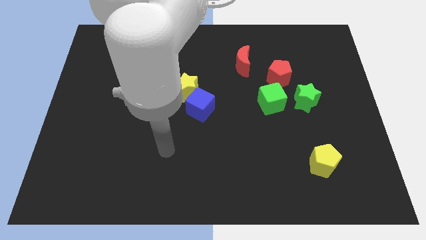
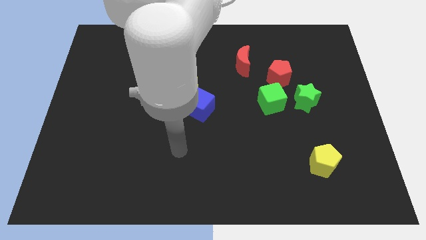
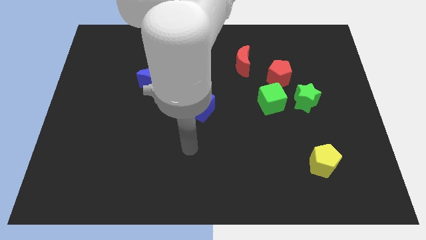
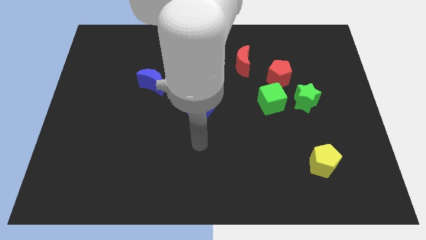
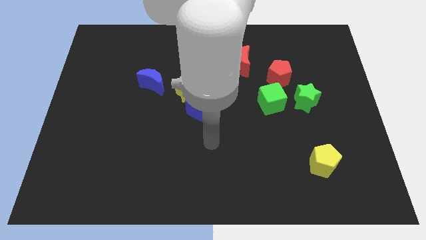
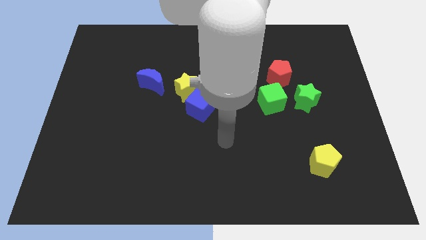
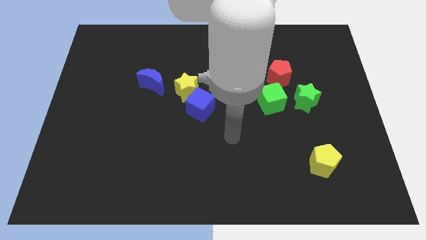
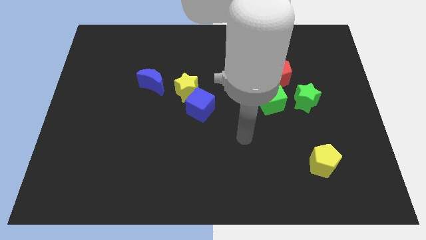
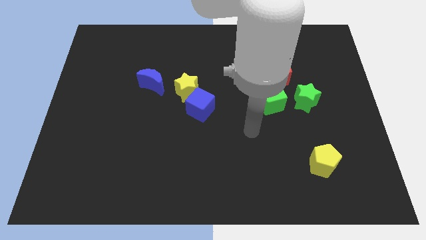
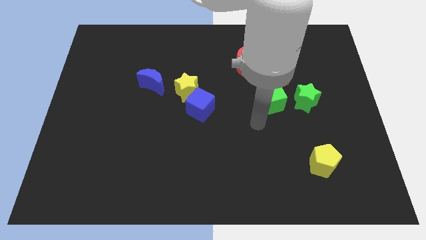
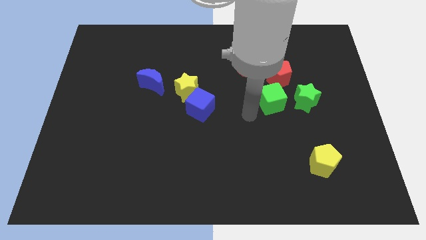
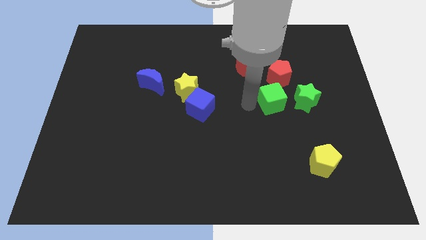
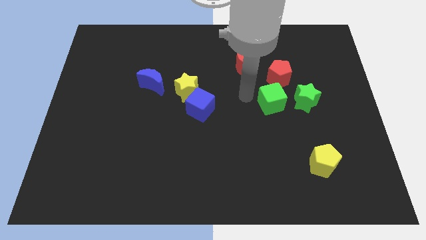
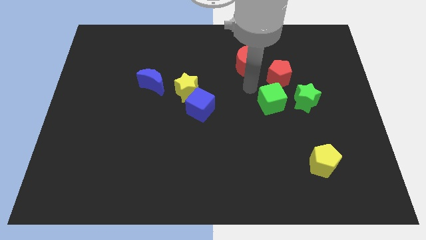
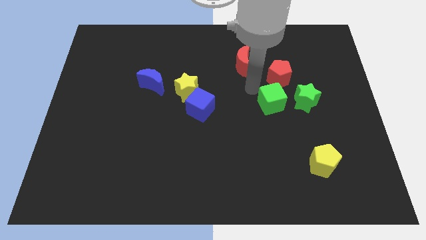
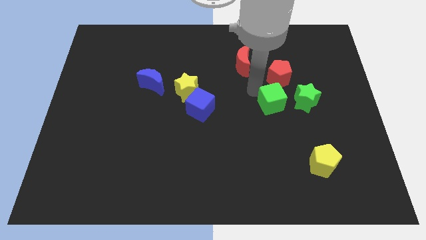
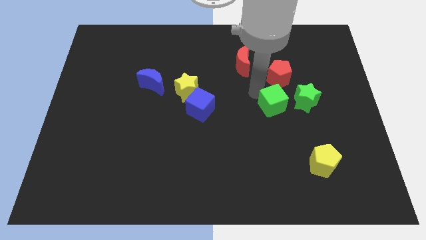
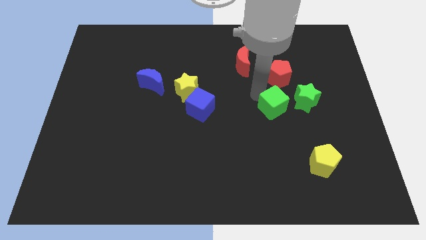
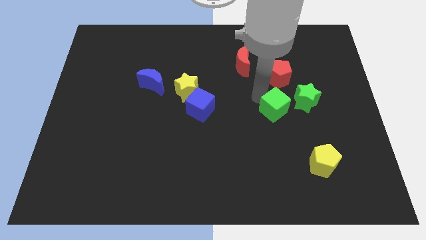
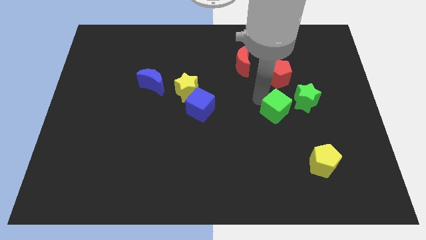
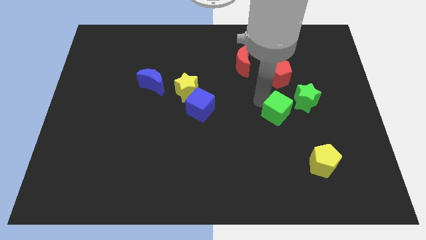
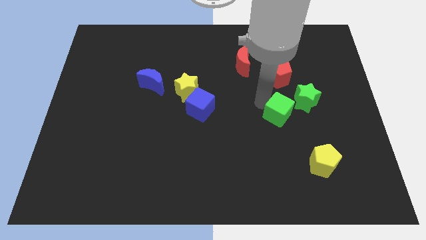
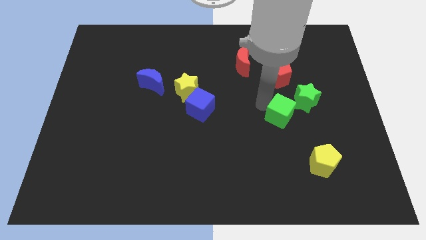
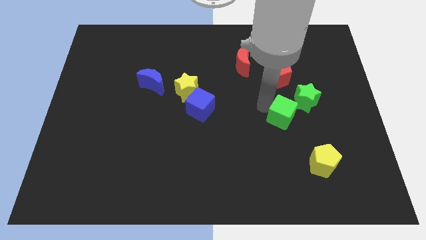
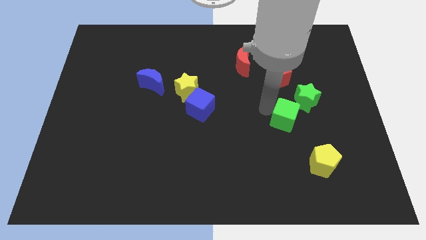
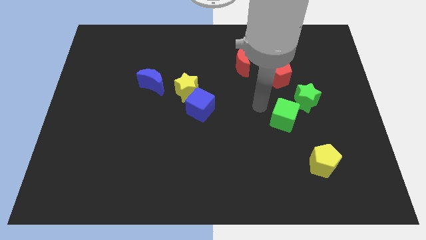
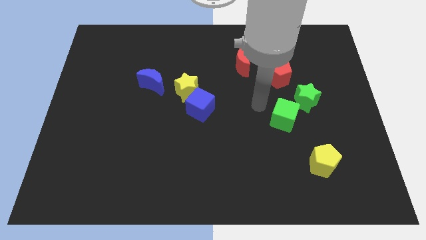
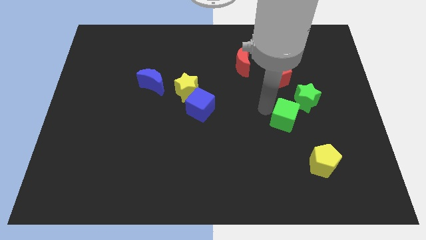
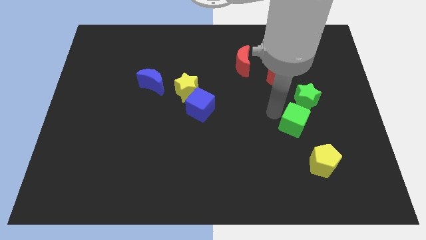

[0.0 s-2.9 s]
move the green cube downwards and then to the right somewhat

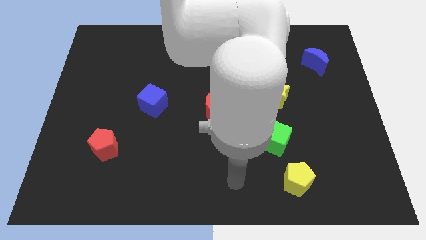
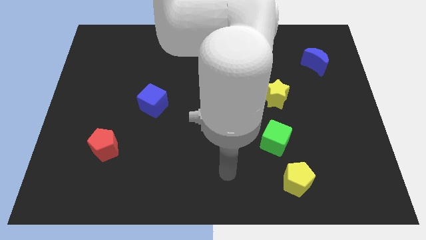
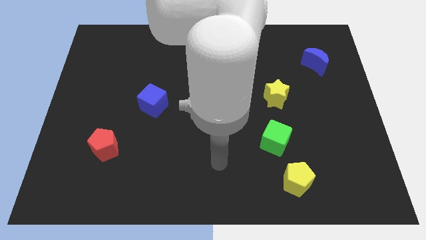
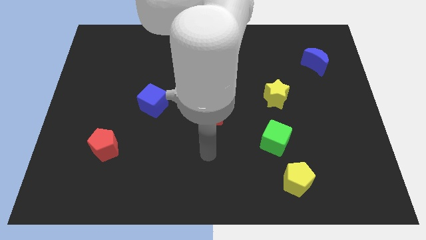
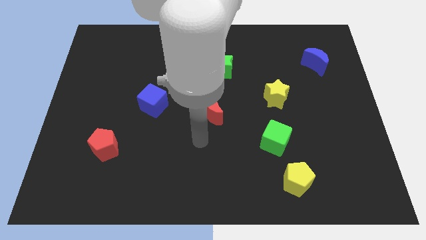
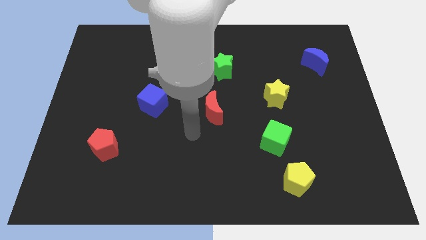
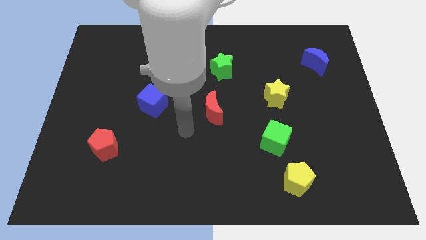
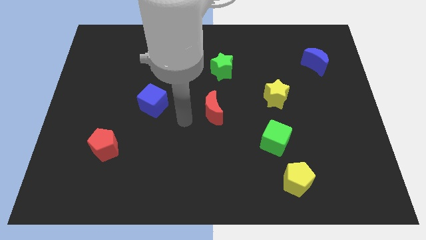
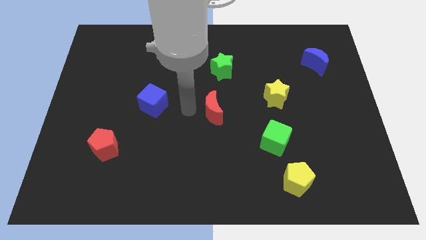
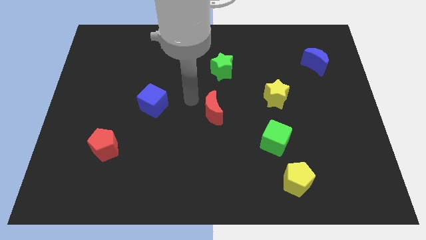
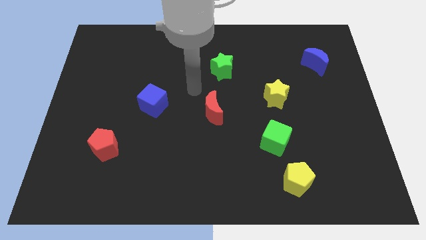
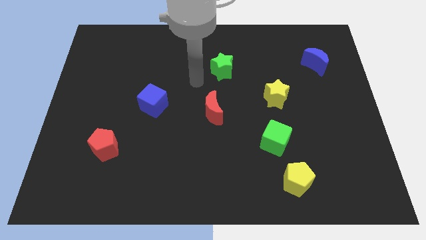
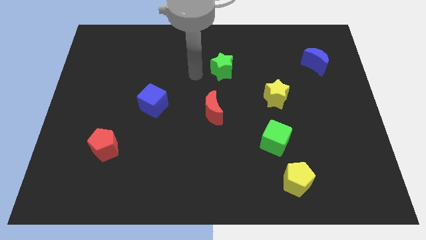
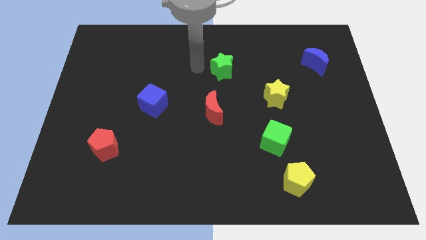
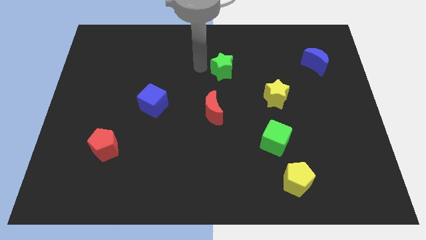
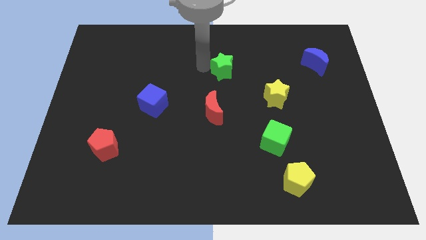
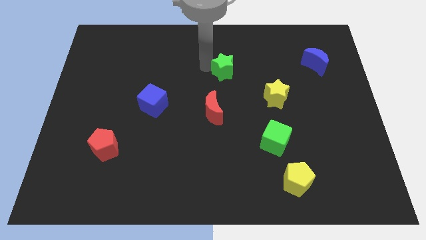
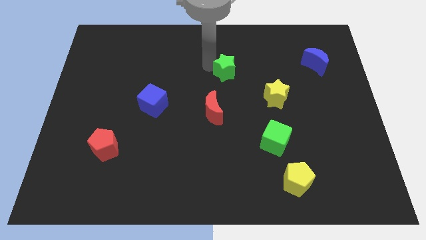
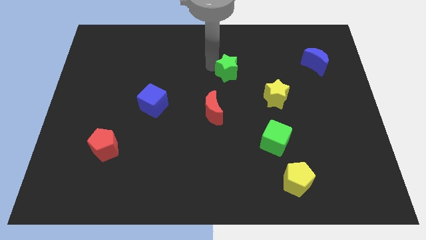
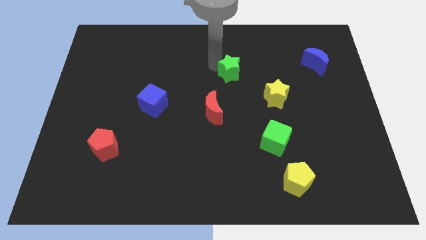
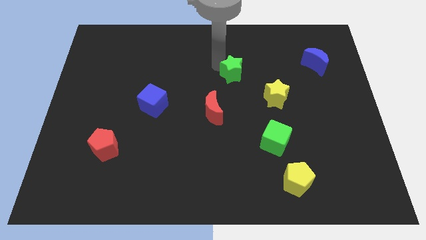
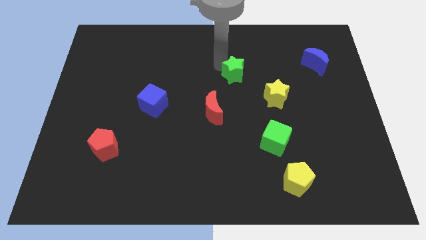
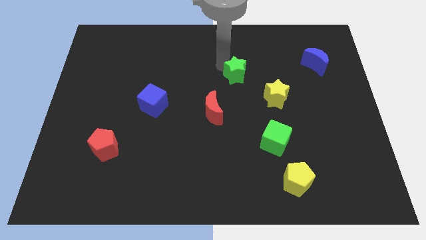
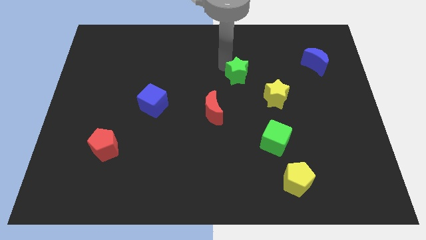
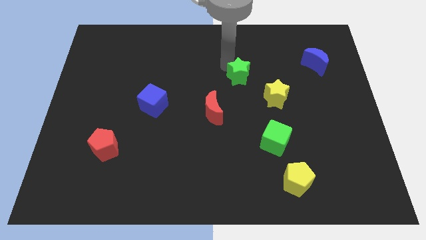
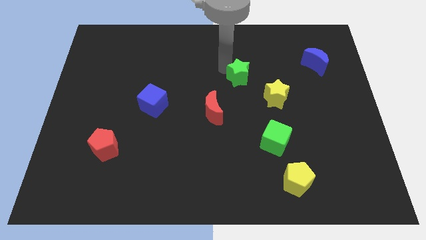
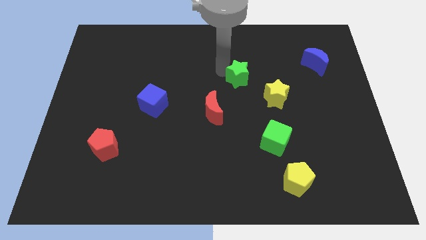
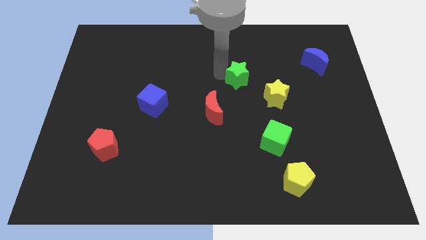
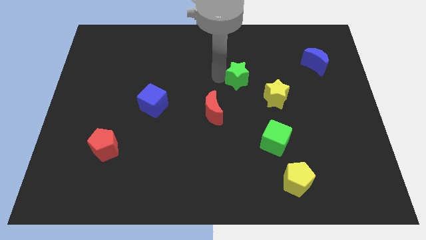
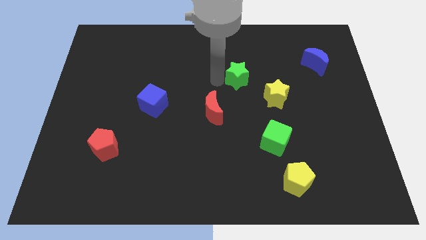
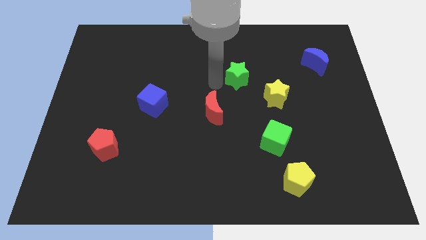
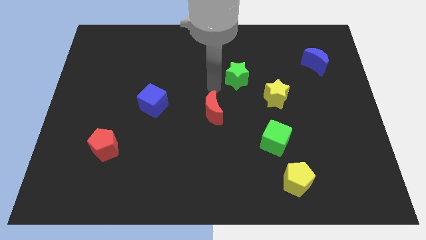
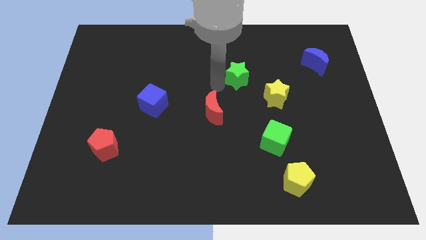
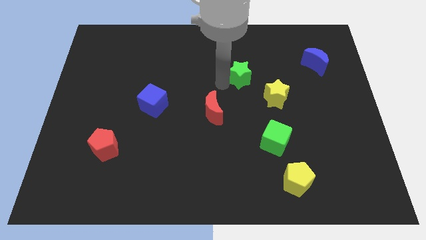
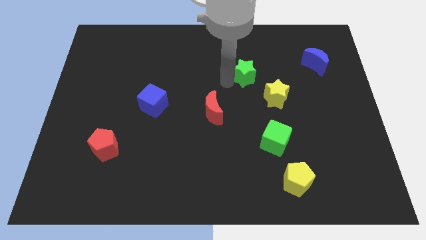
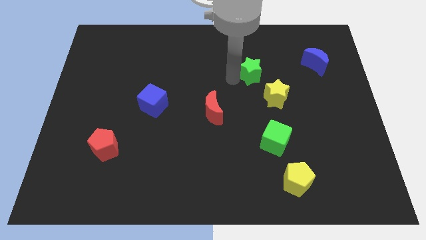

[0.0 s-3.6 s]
move the green star to the right a bit

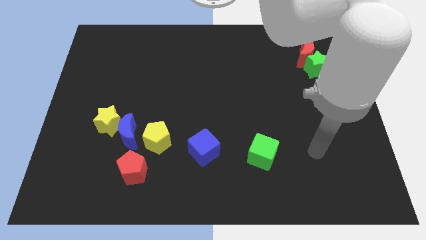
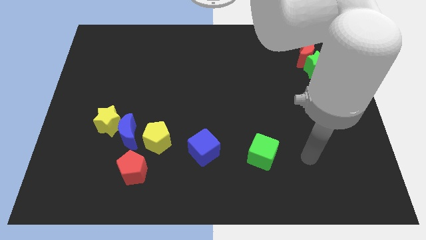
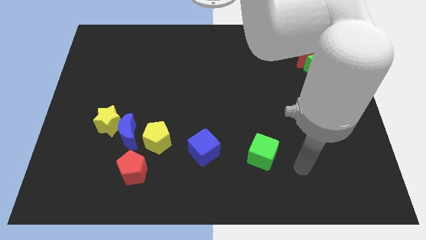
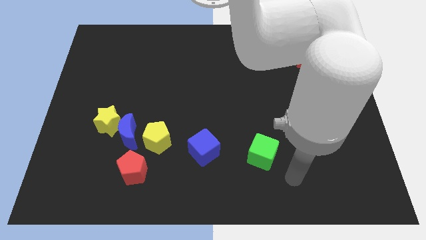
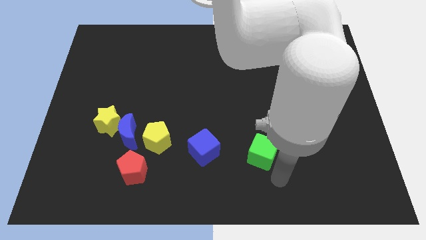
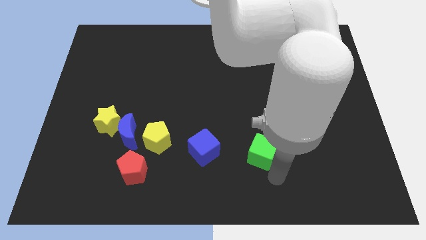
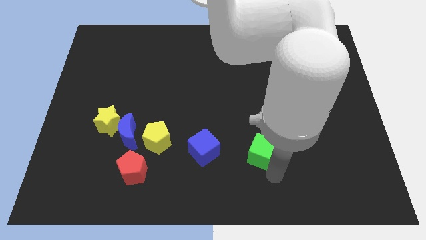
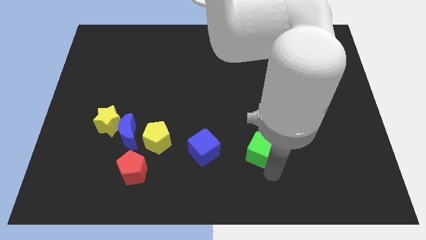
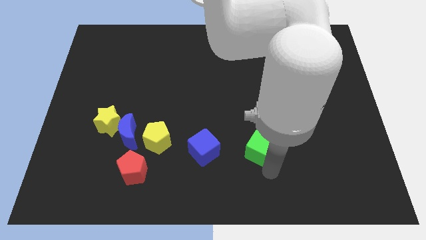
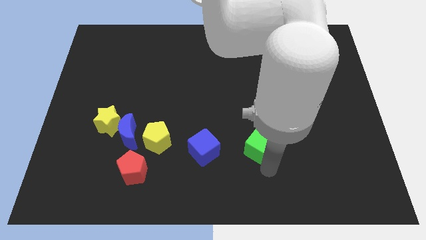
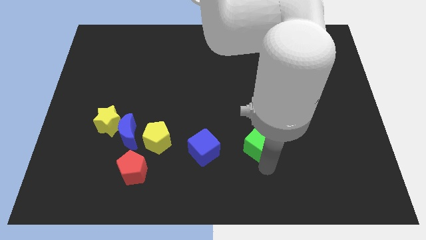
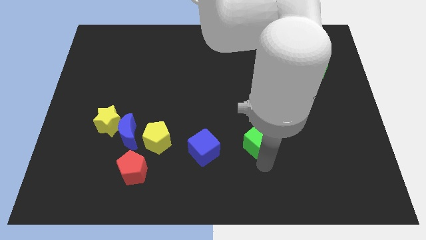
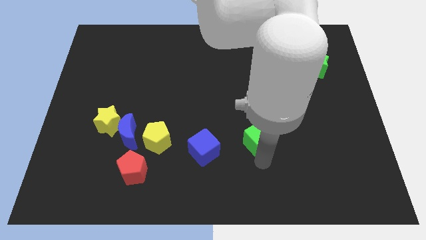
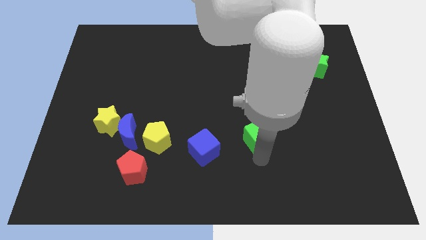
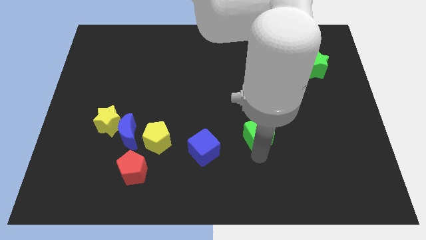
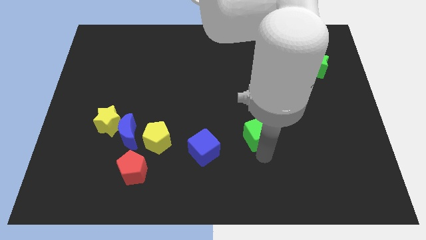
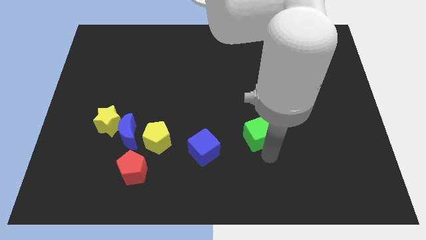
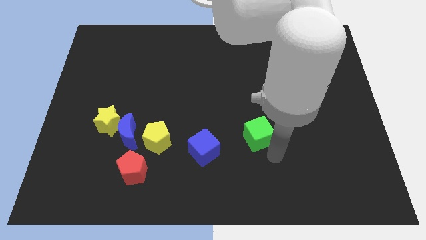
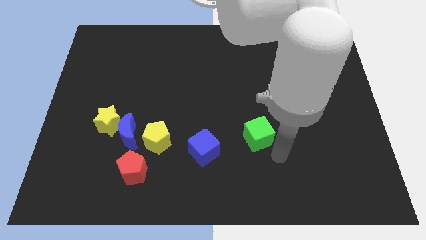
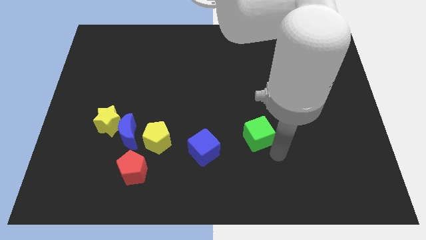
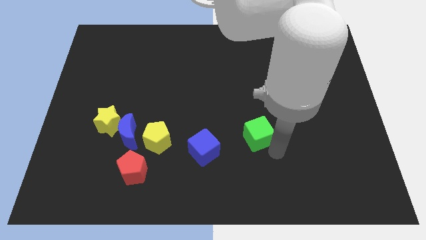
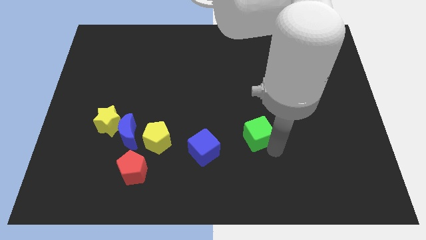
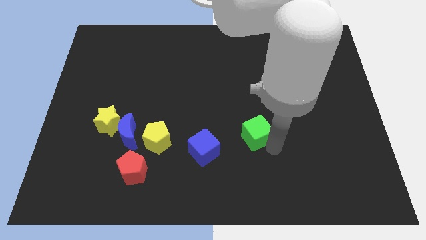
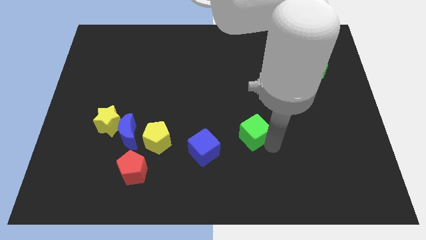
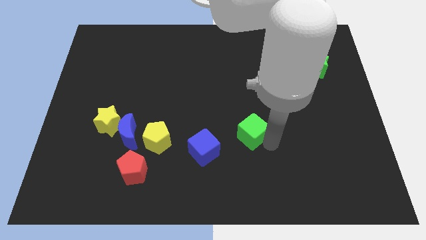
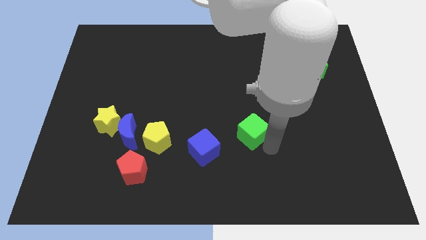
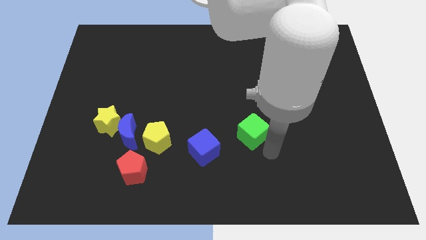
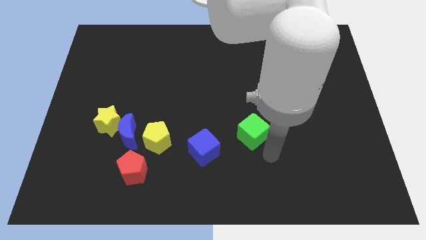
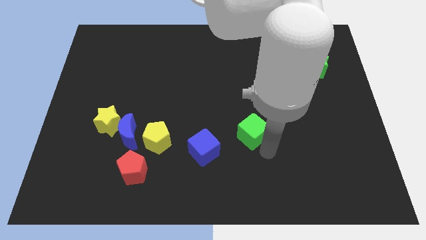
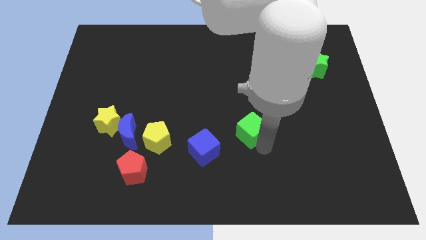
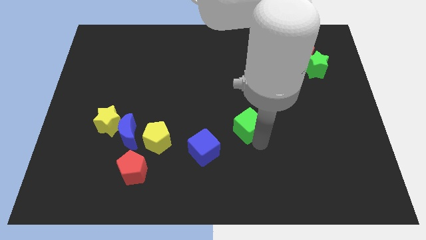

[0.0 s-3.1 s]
slightly slide the green cube up
